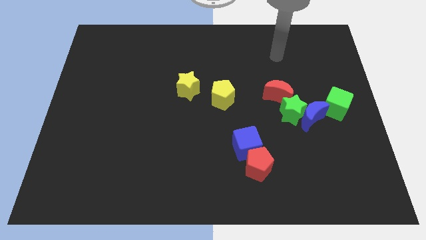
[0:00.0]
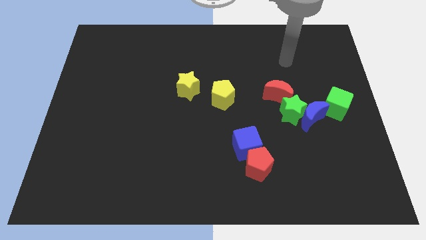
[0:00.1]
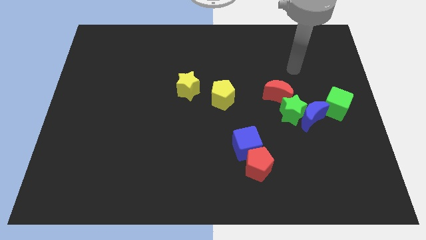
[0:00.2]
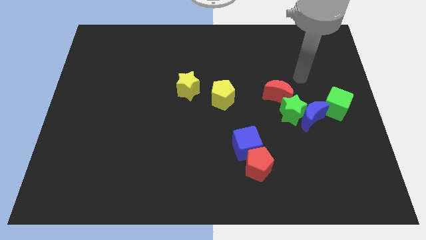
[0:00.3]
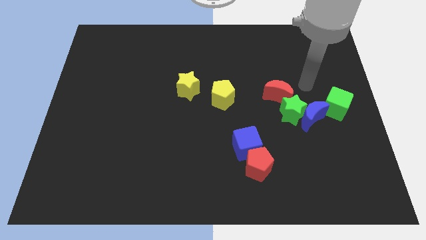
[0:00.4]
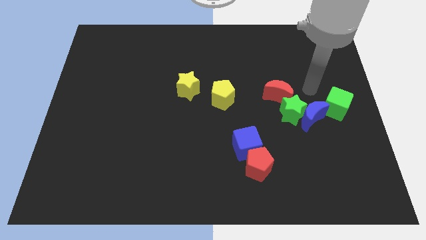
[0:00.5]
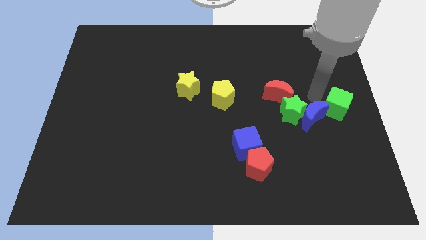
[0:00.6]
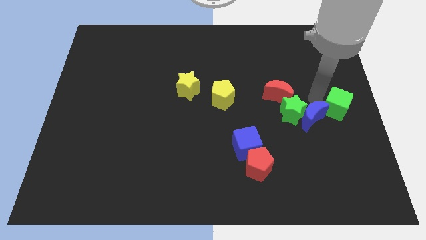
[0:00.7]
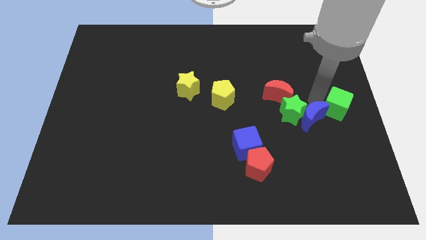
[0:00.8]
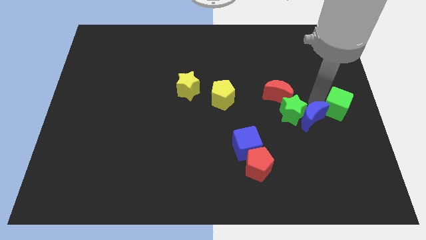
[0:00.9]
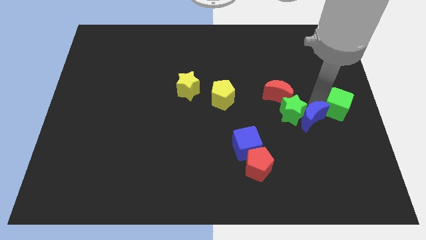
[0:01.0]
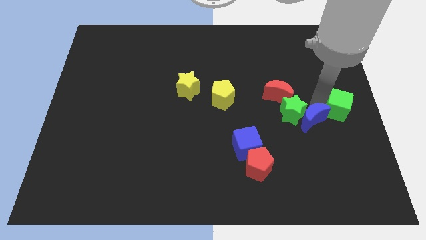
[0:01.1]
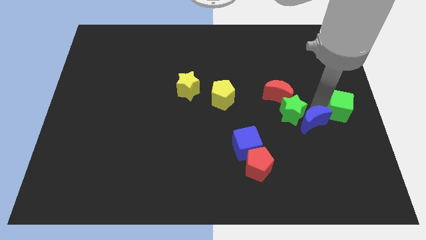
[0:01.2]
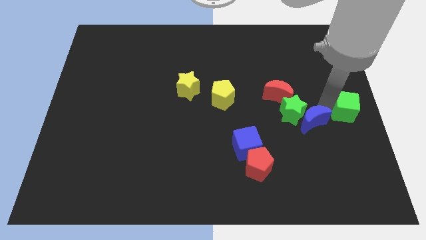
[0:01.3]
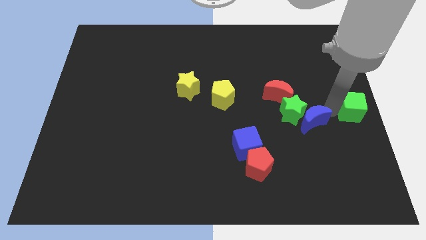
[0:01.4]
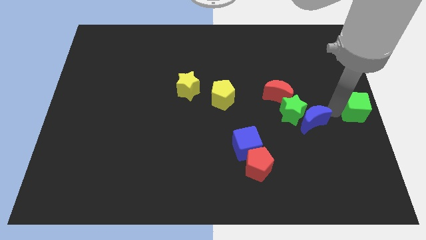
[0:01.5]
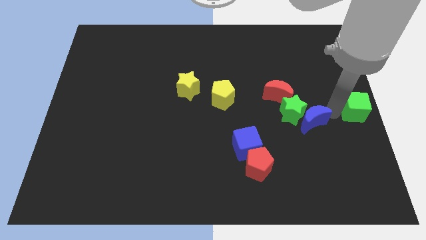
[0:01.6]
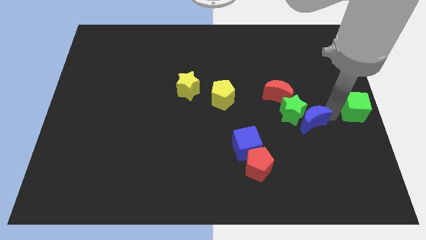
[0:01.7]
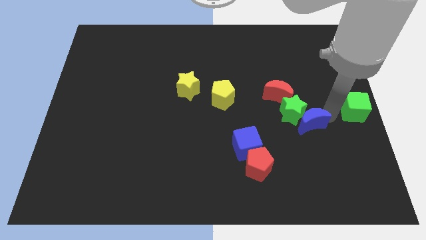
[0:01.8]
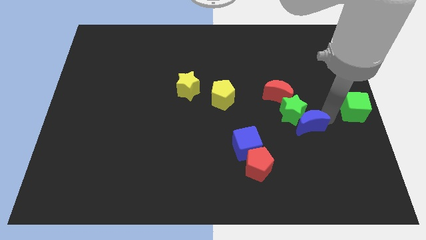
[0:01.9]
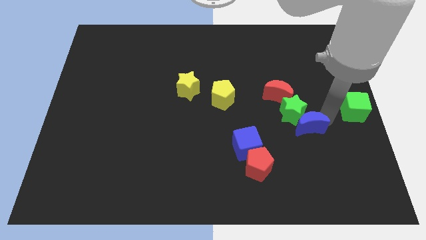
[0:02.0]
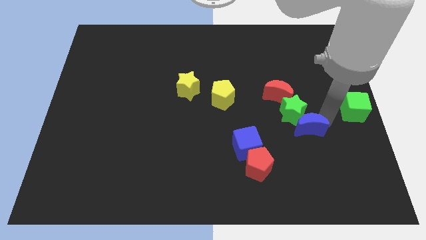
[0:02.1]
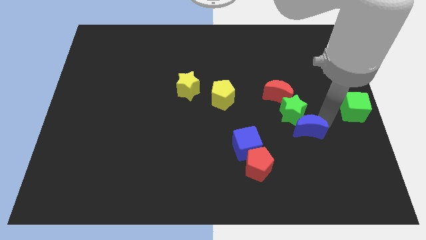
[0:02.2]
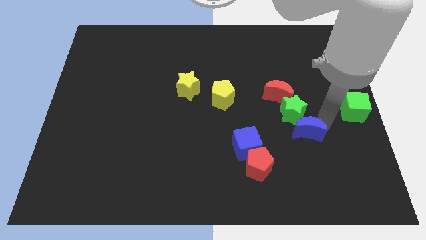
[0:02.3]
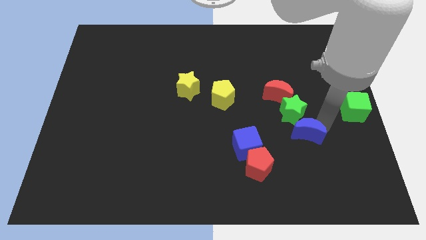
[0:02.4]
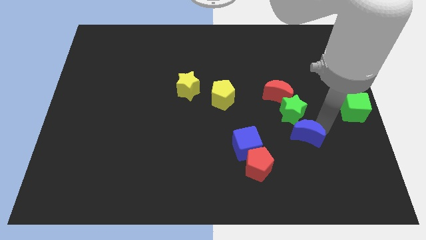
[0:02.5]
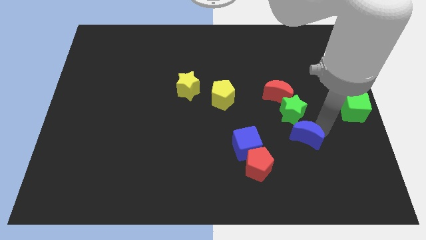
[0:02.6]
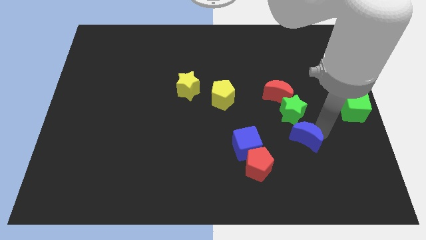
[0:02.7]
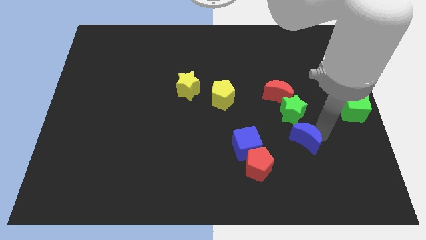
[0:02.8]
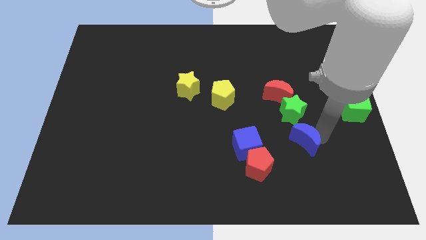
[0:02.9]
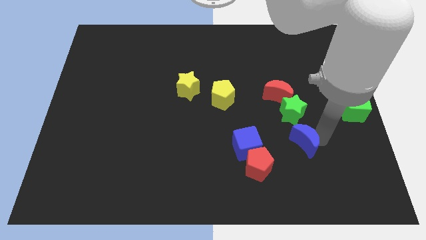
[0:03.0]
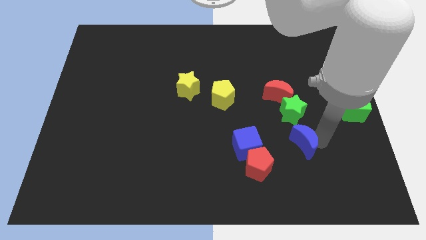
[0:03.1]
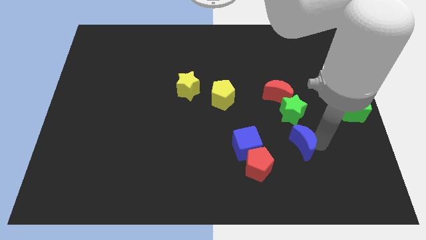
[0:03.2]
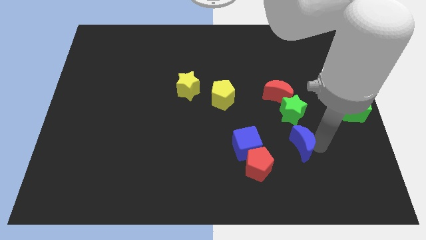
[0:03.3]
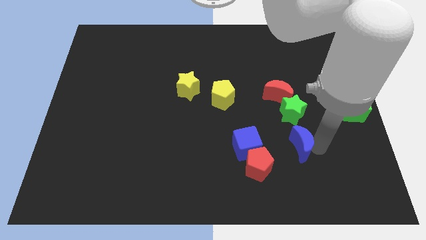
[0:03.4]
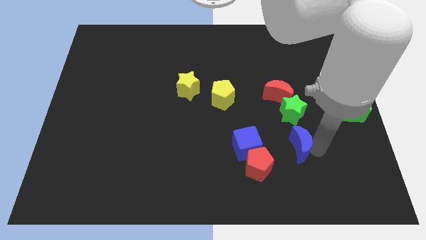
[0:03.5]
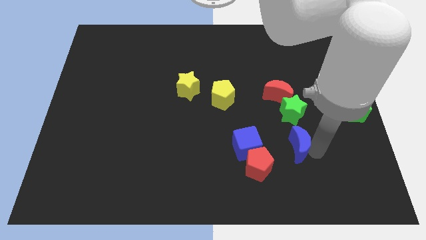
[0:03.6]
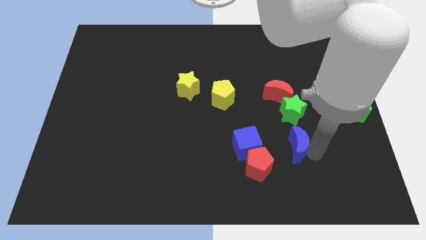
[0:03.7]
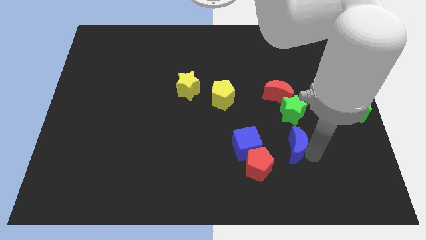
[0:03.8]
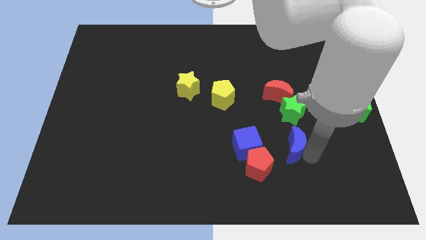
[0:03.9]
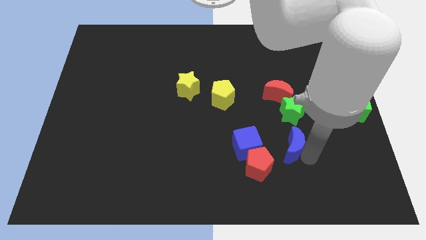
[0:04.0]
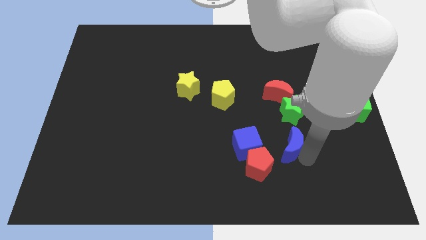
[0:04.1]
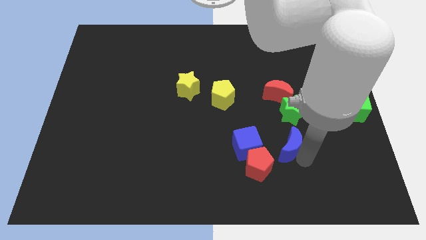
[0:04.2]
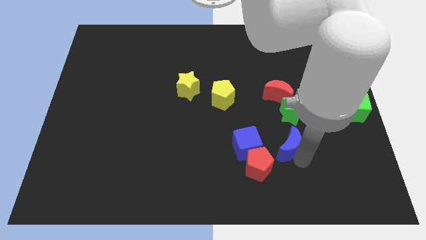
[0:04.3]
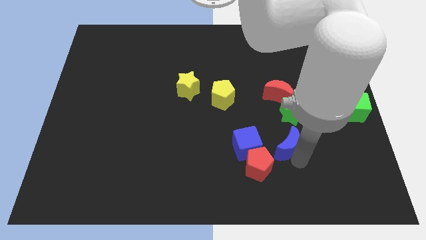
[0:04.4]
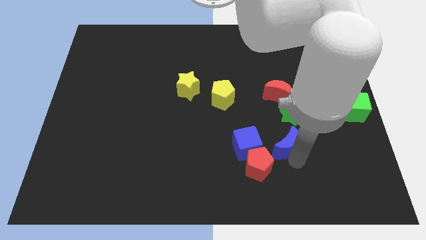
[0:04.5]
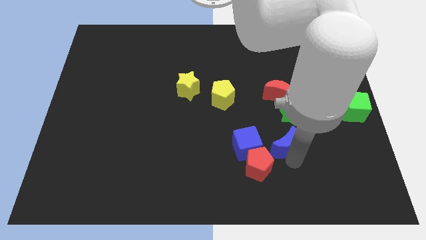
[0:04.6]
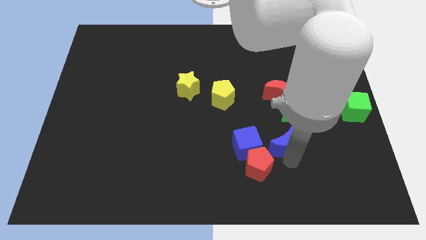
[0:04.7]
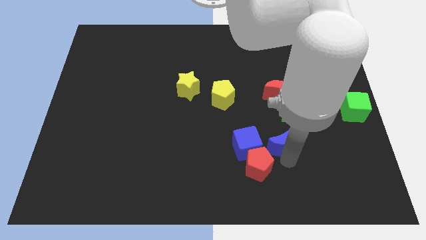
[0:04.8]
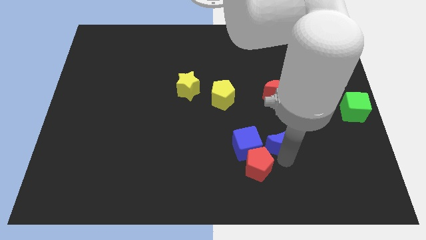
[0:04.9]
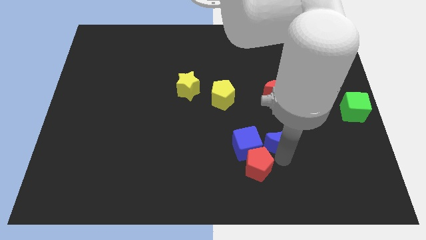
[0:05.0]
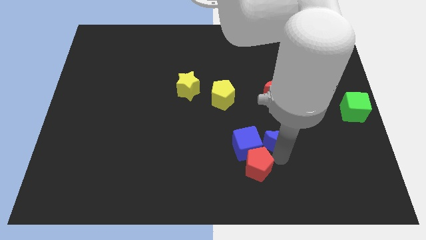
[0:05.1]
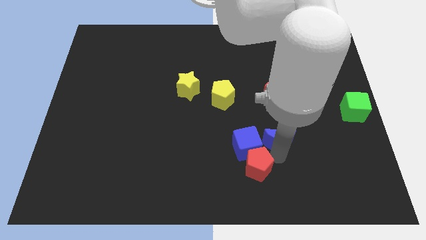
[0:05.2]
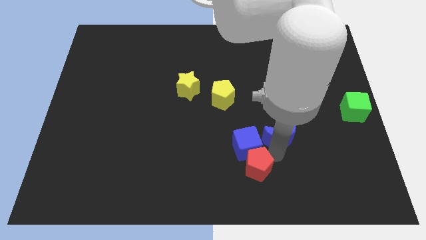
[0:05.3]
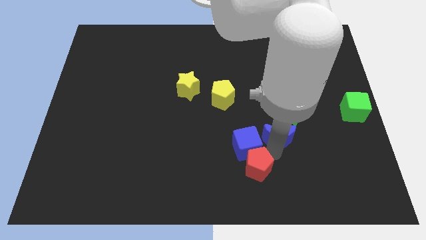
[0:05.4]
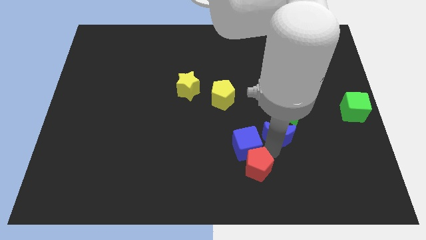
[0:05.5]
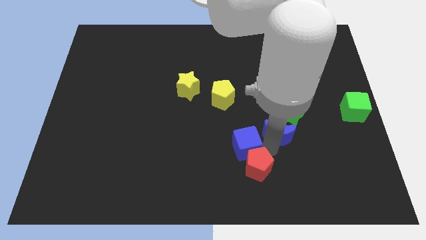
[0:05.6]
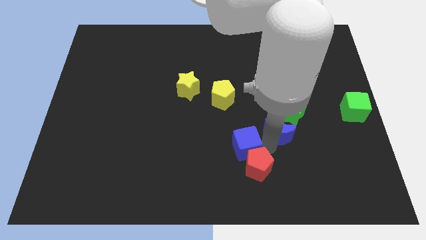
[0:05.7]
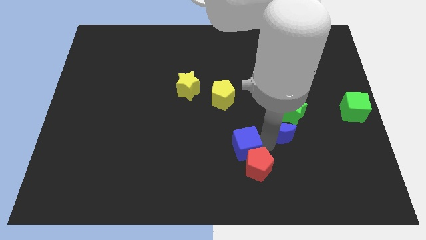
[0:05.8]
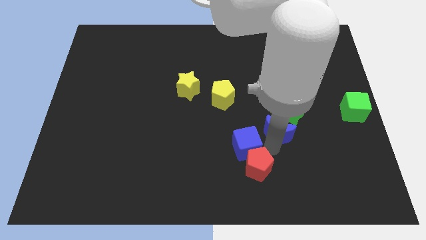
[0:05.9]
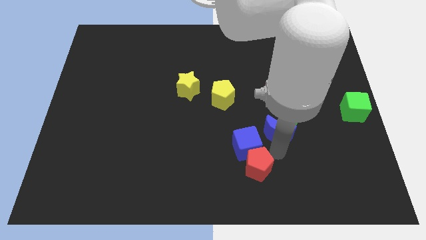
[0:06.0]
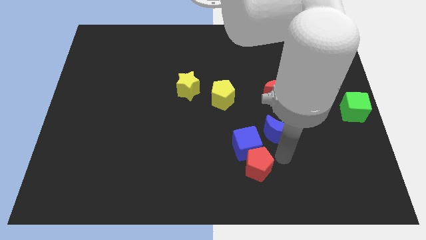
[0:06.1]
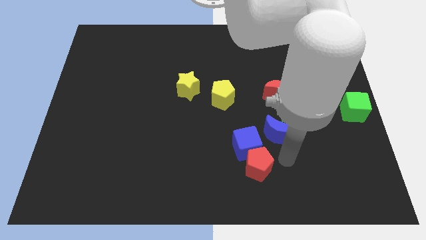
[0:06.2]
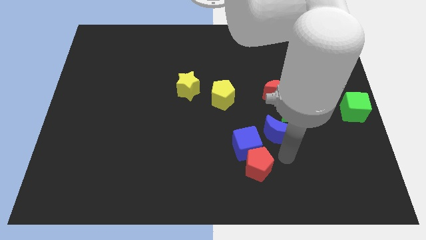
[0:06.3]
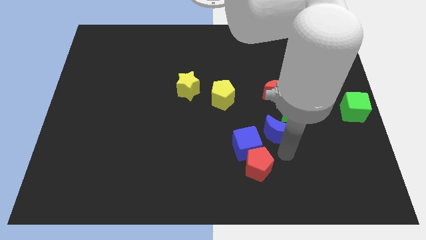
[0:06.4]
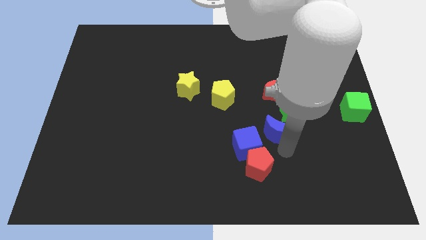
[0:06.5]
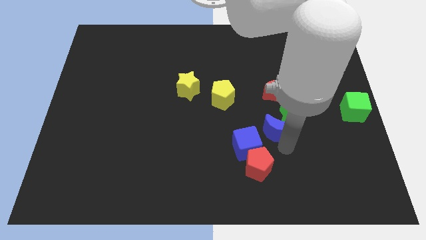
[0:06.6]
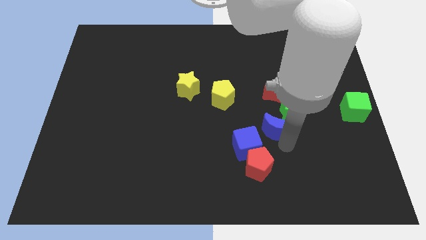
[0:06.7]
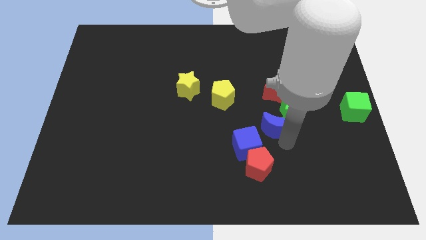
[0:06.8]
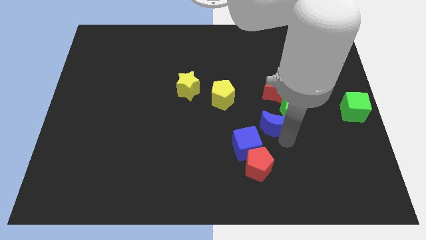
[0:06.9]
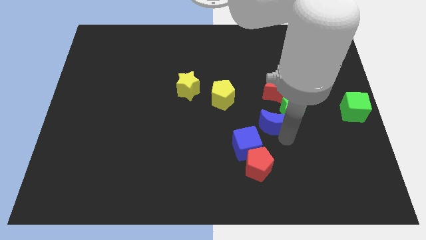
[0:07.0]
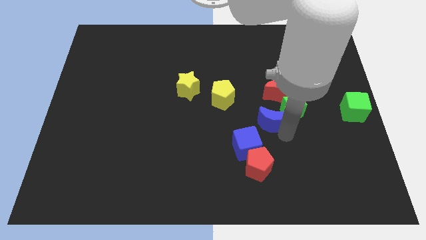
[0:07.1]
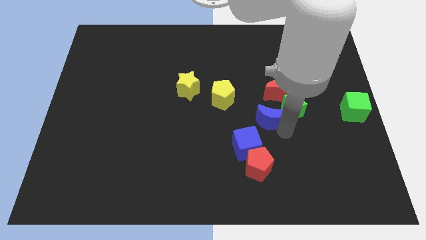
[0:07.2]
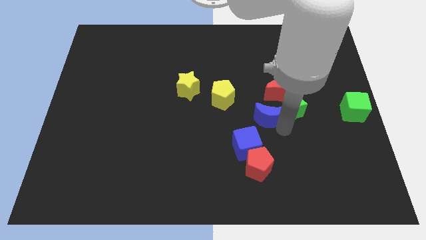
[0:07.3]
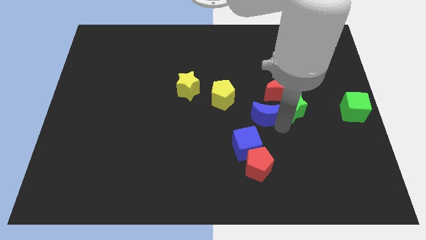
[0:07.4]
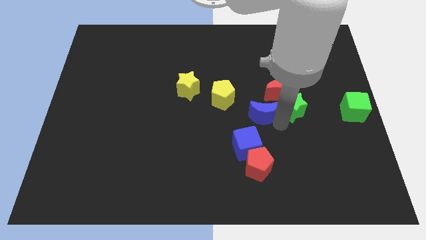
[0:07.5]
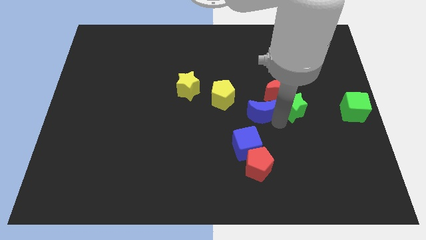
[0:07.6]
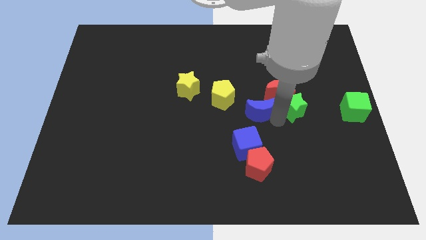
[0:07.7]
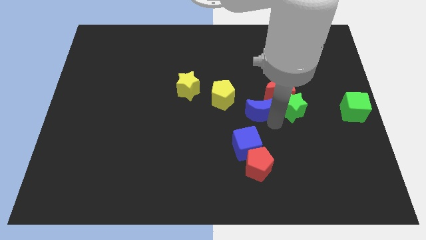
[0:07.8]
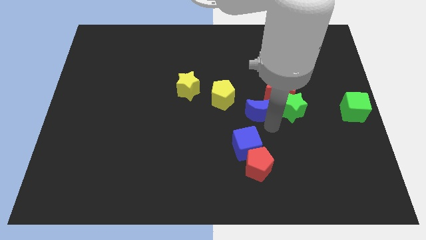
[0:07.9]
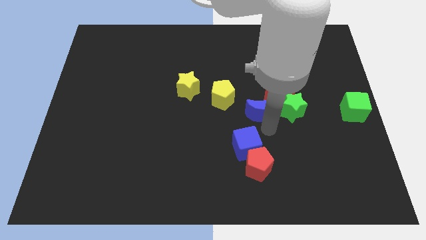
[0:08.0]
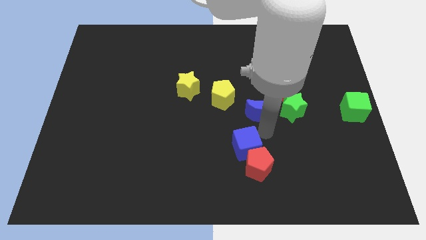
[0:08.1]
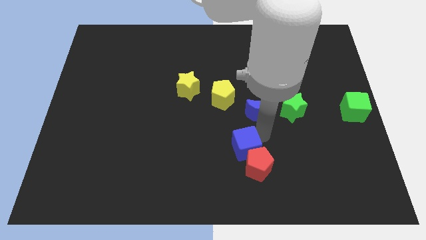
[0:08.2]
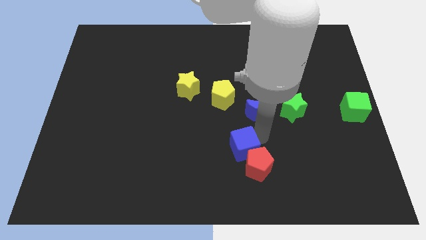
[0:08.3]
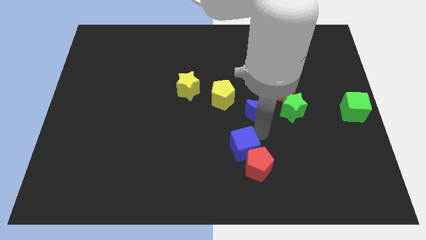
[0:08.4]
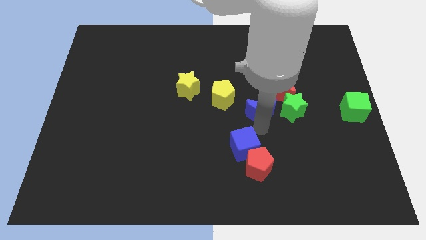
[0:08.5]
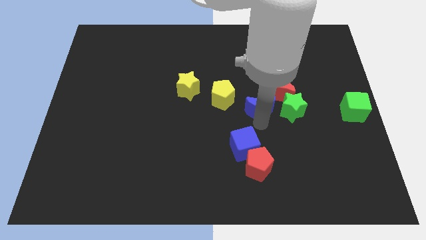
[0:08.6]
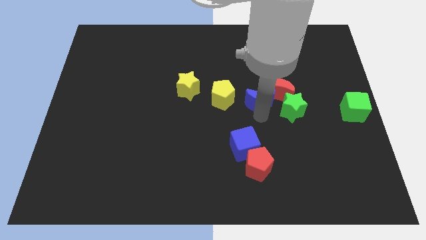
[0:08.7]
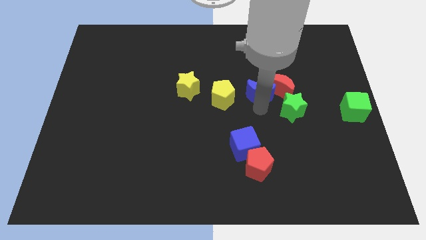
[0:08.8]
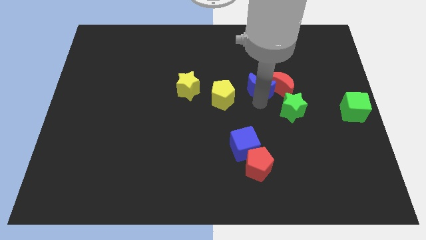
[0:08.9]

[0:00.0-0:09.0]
push the blue moon diagonally up and to the left of the red moon
